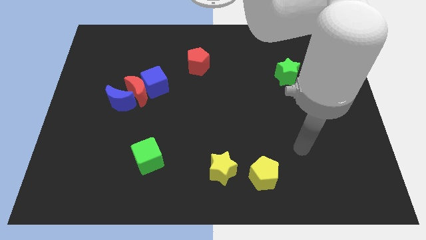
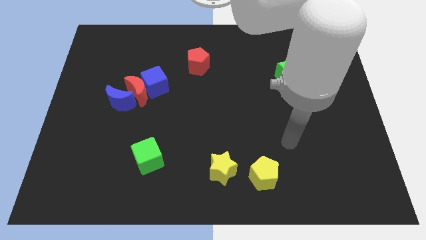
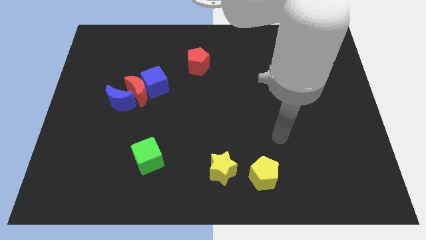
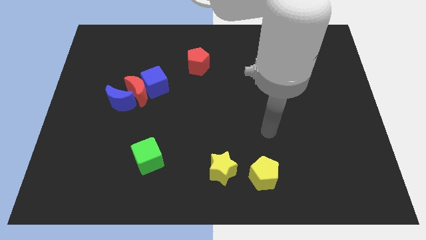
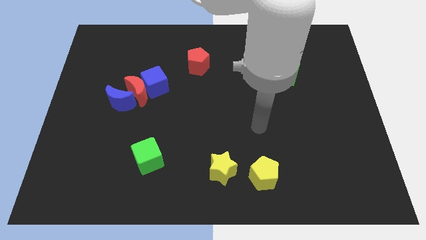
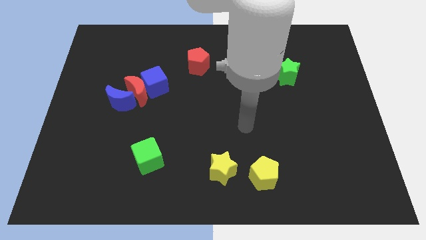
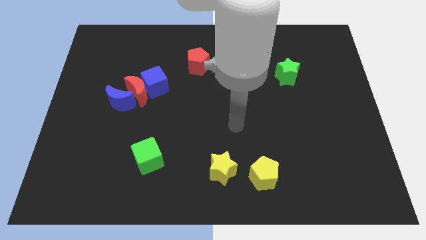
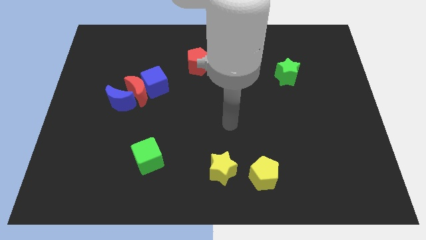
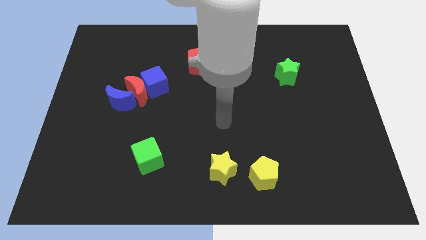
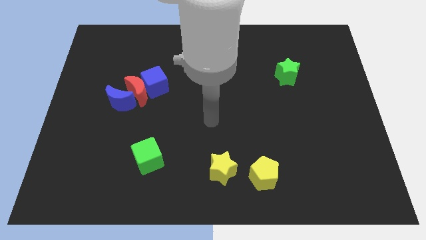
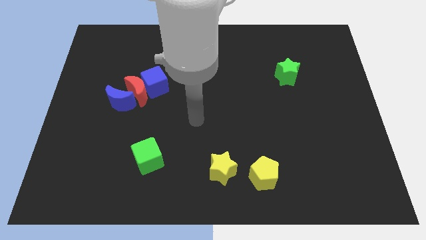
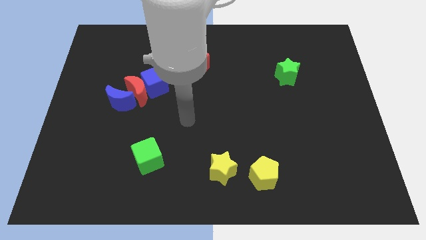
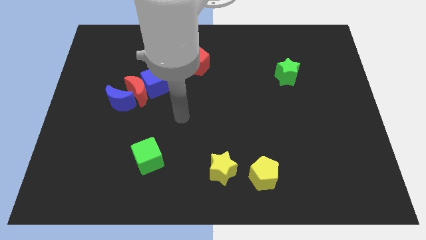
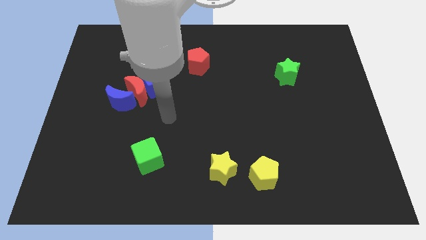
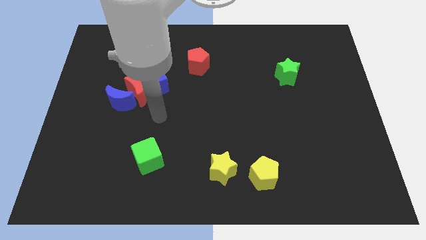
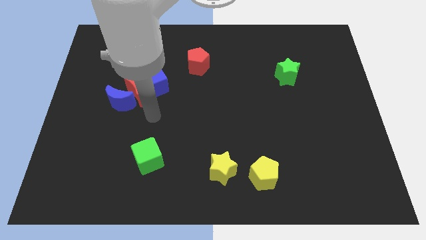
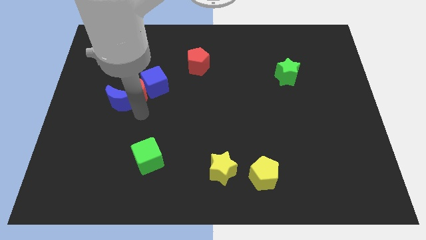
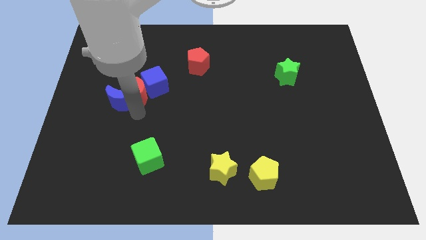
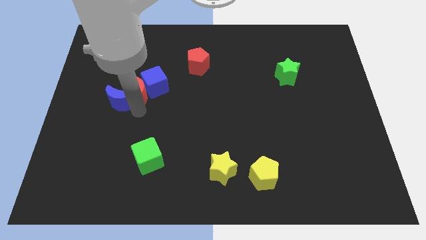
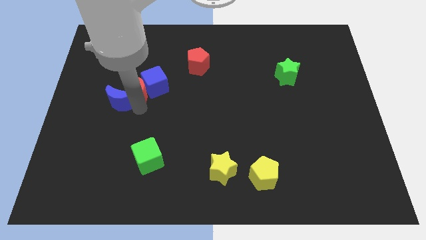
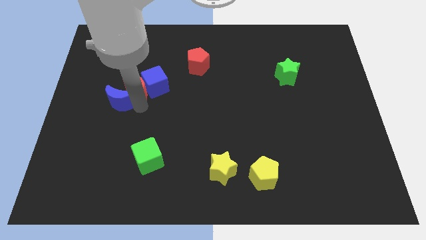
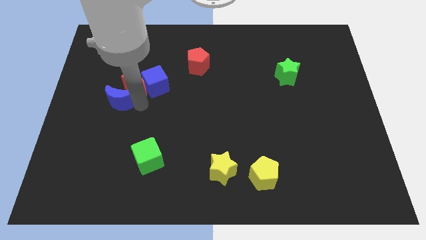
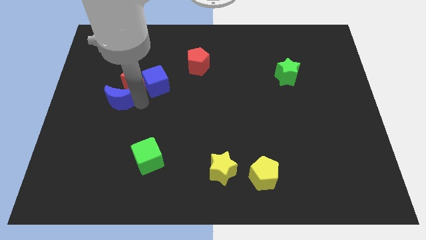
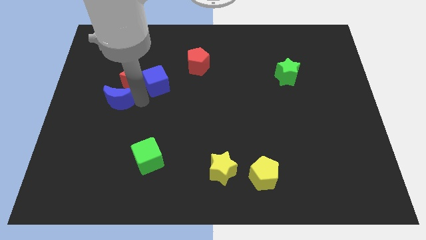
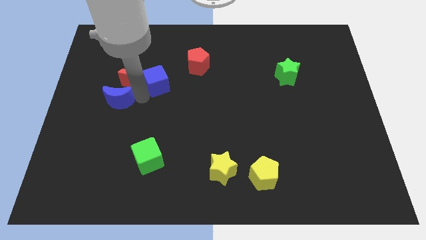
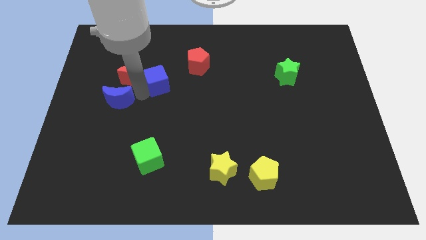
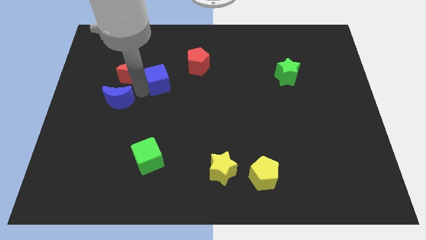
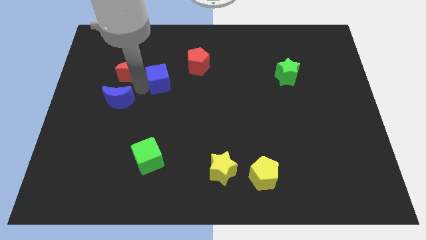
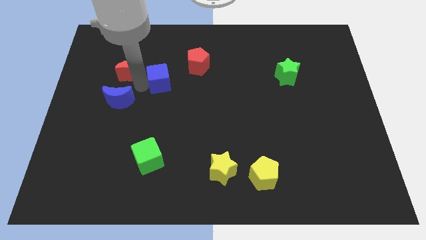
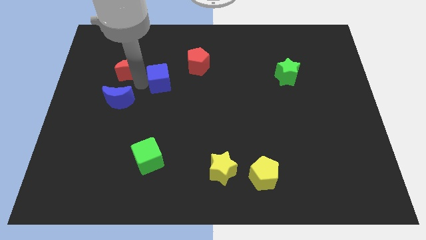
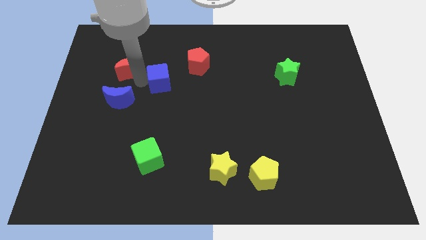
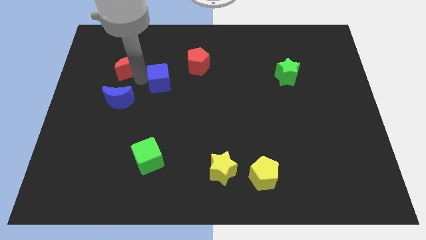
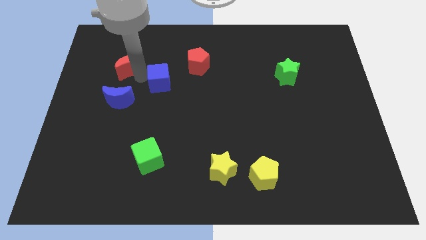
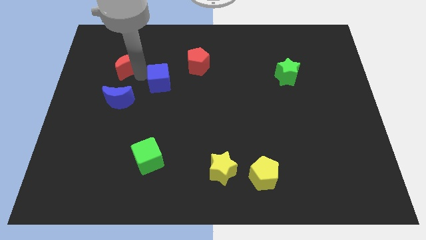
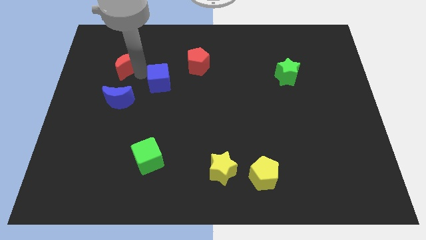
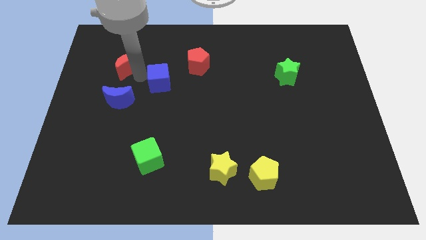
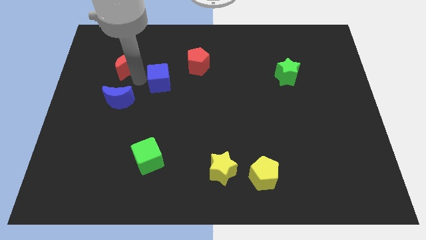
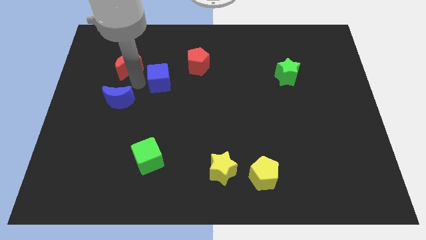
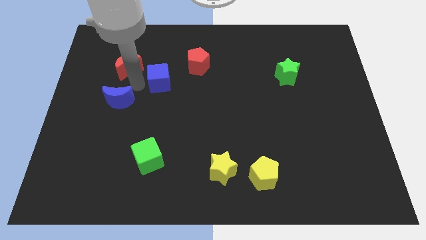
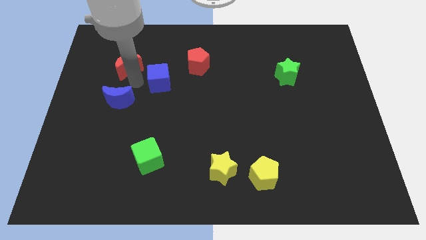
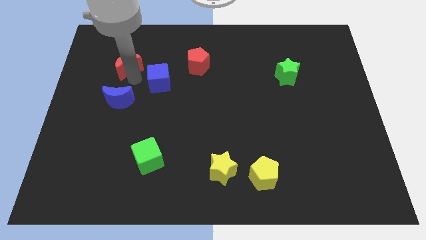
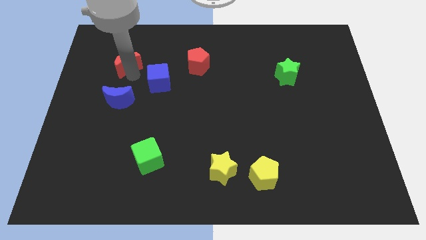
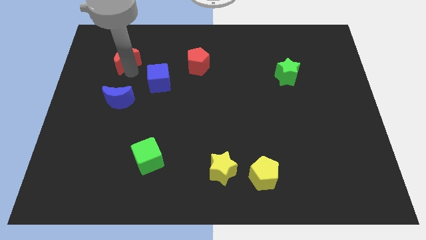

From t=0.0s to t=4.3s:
move the red moon away from the blue cube and blue moon

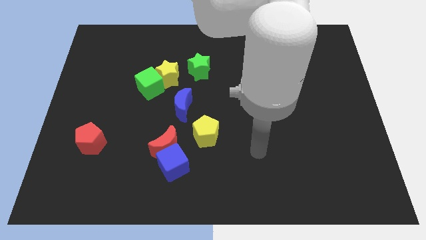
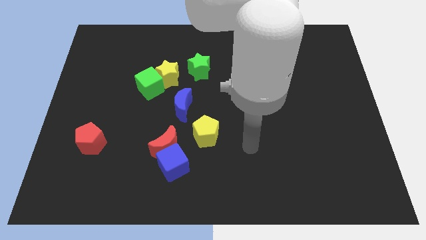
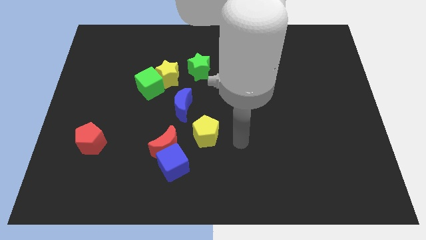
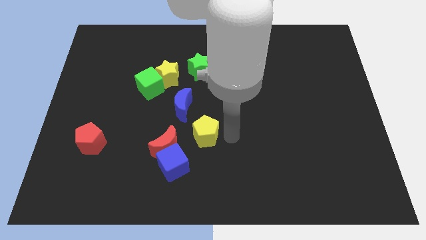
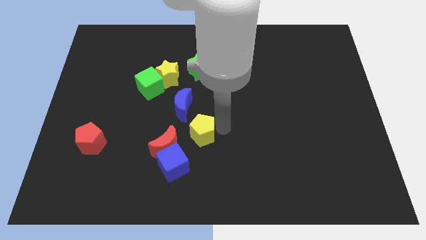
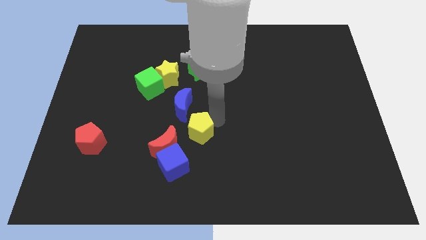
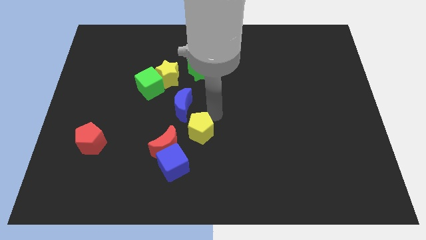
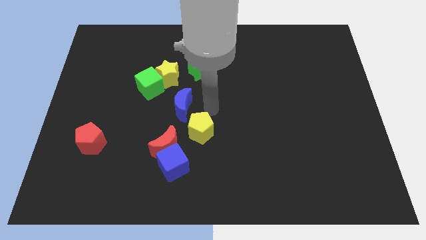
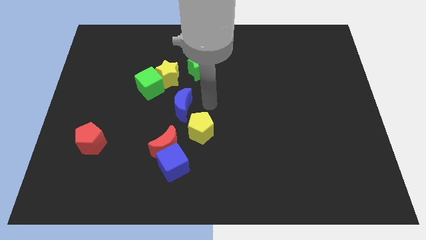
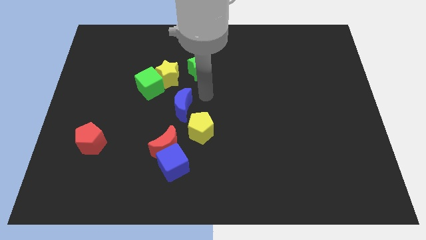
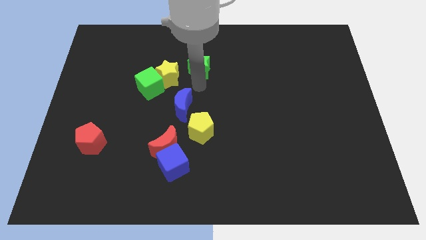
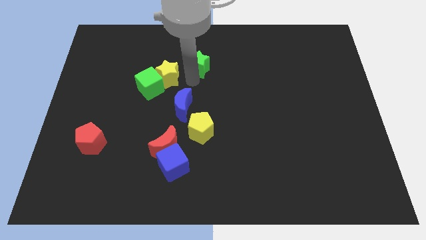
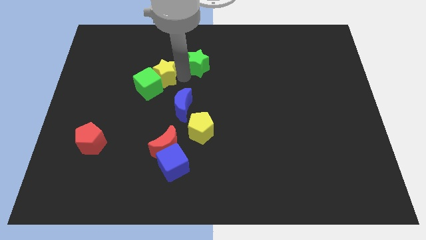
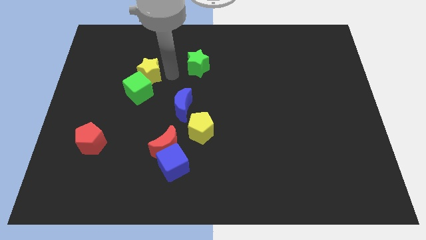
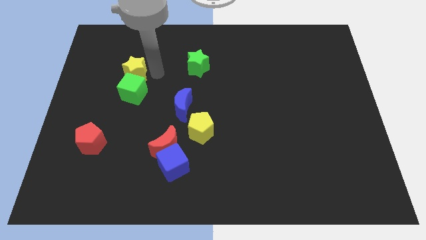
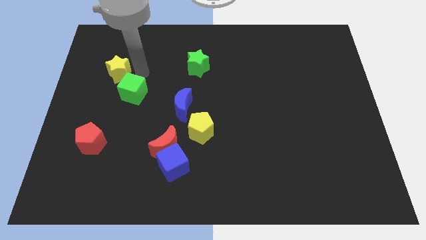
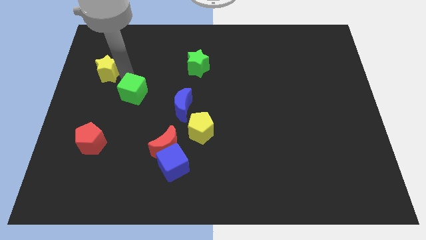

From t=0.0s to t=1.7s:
move the green cube away from the yellow star

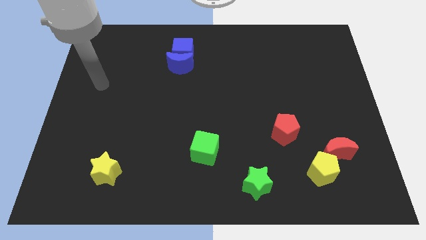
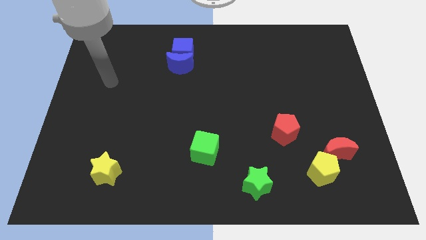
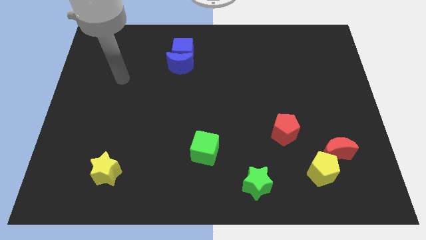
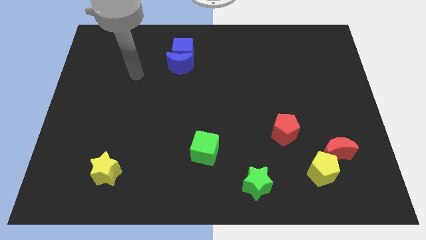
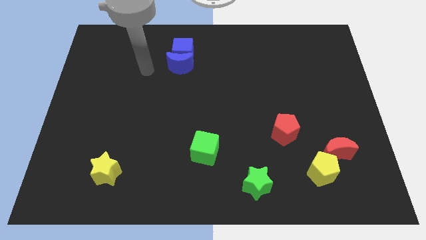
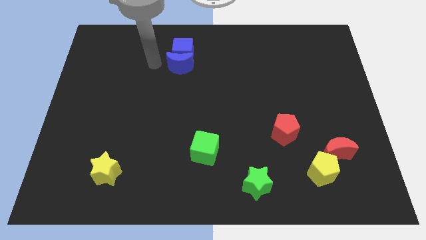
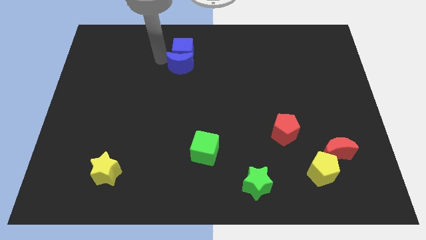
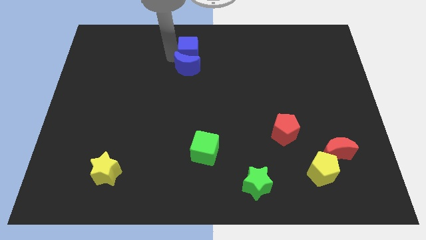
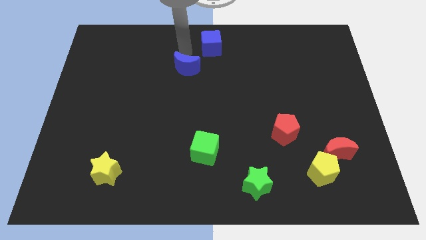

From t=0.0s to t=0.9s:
pull the blue moon apart from the blue cube

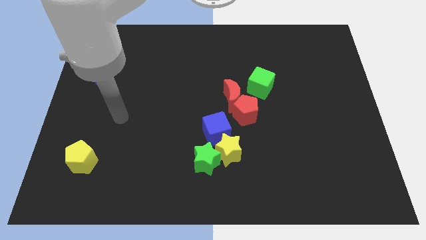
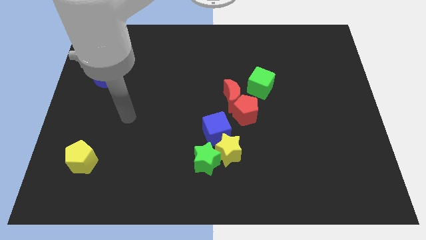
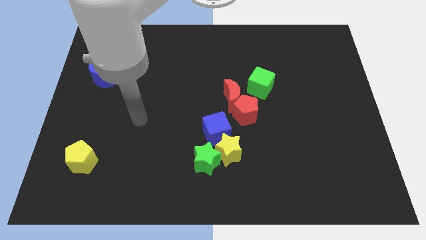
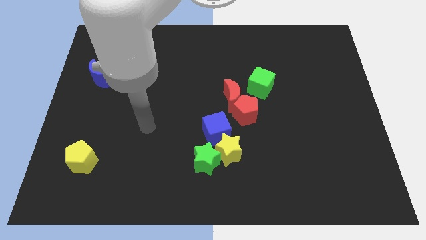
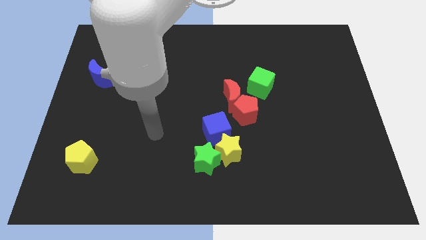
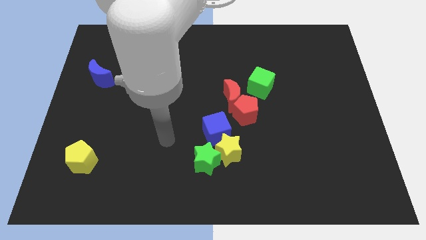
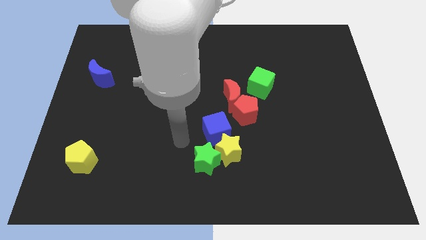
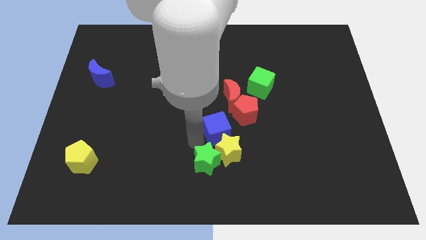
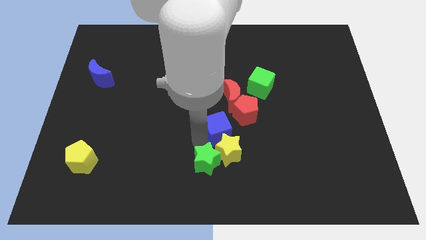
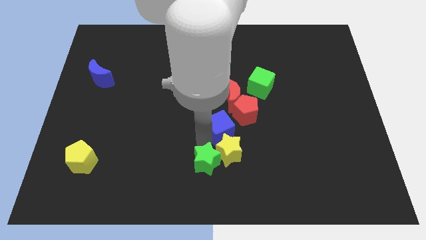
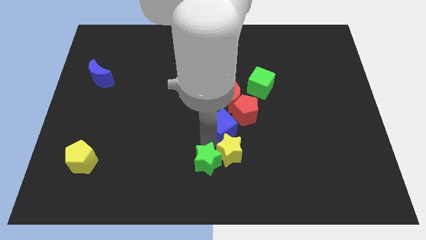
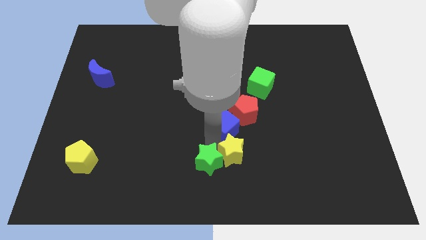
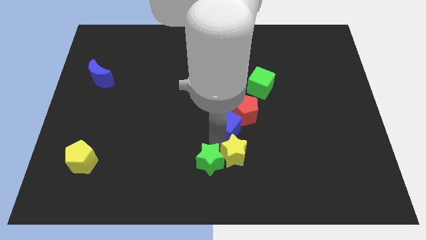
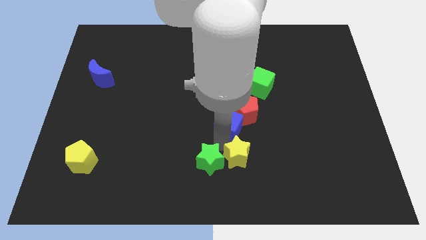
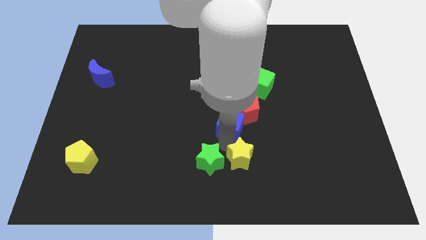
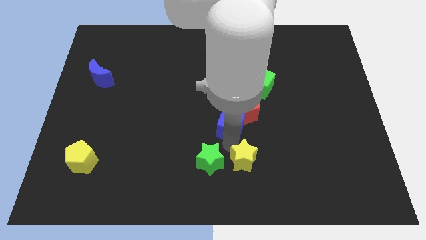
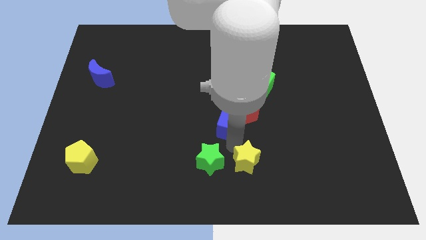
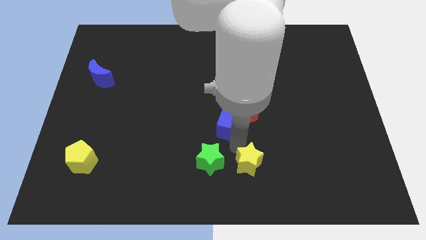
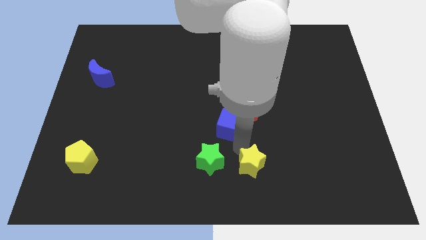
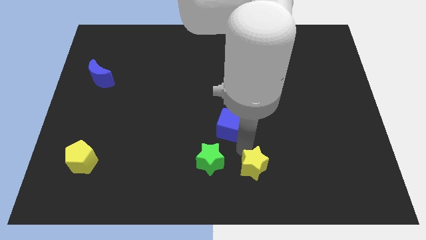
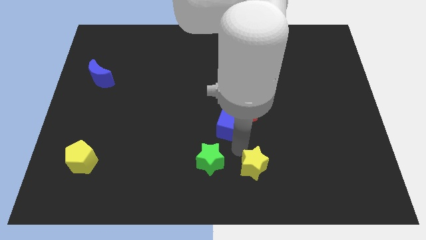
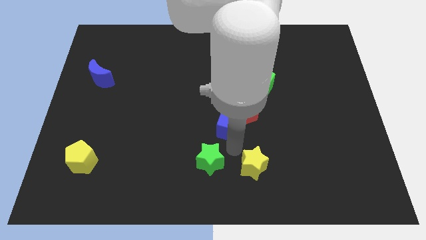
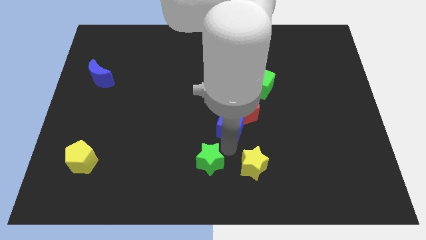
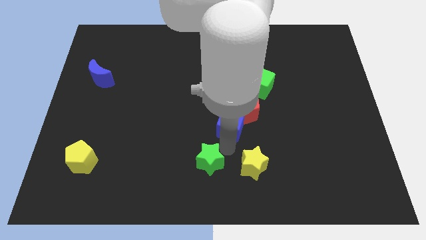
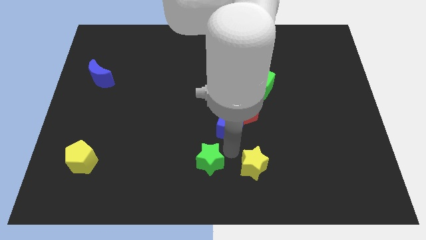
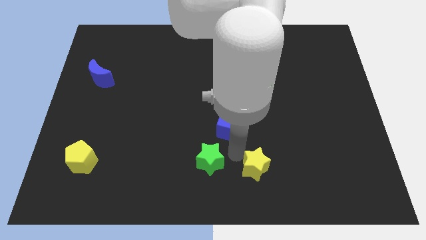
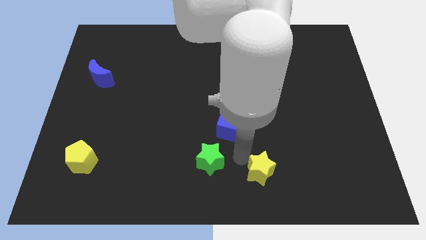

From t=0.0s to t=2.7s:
move the yellow star away from the green star and blue cube
